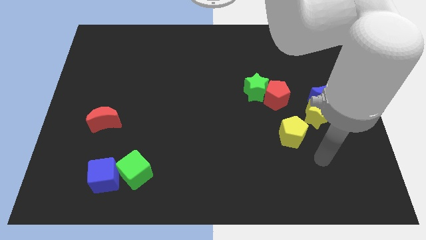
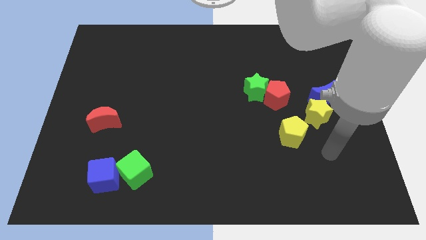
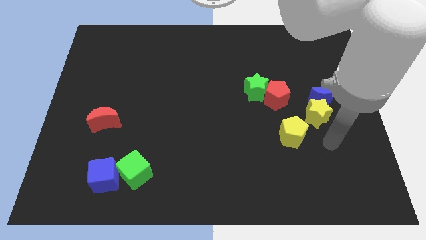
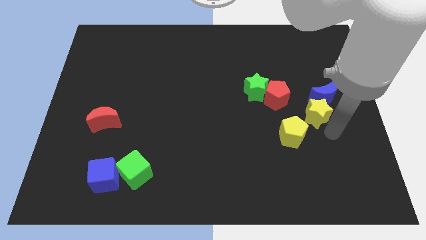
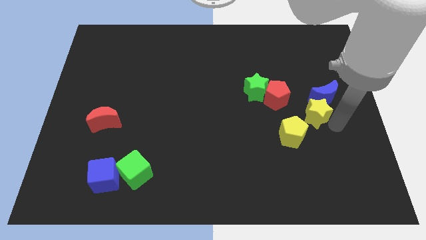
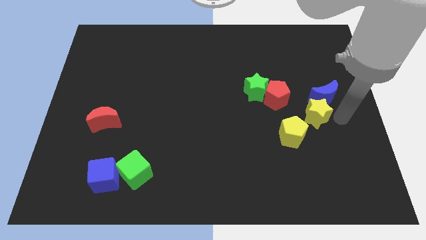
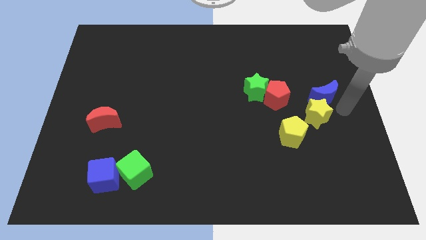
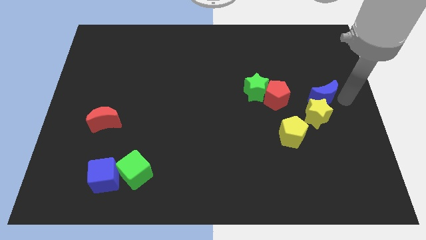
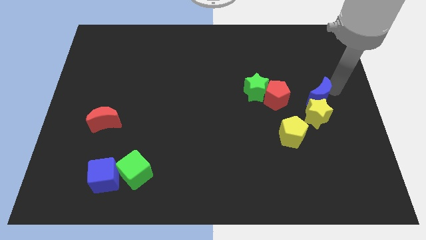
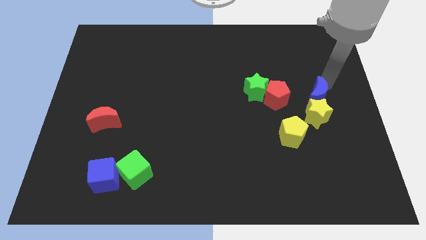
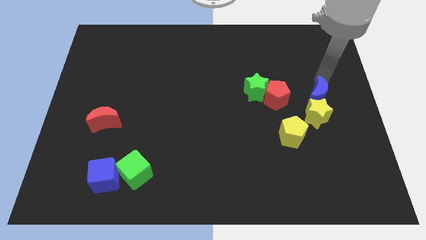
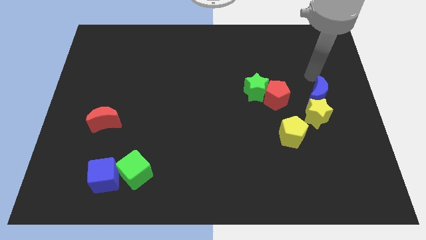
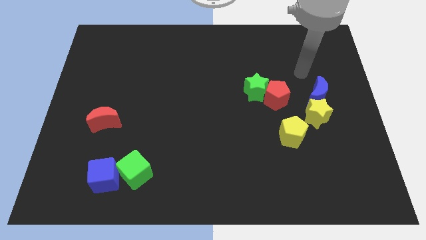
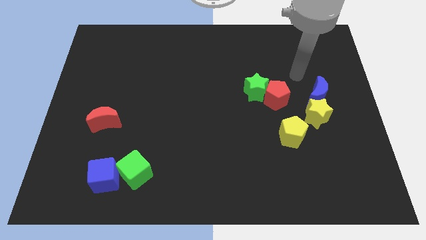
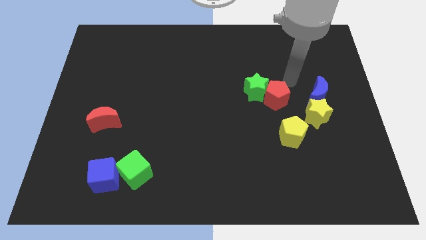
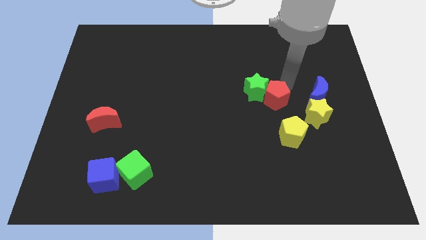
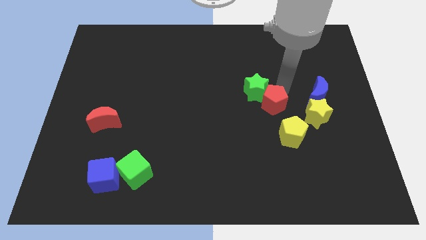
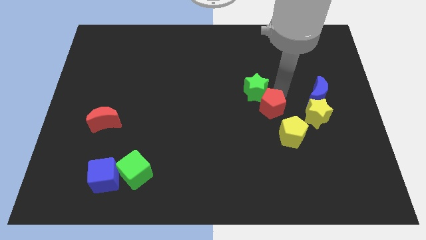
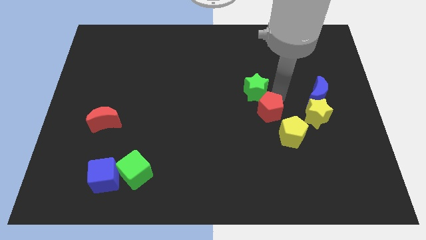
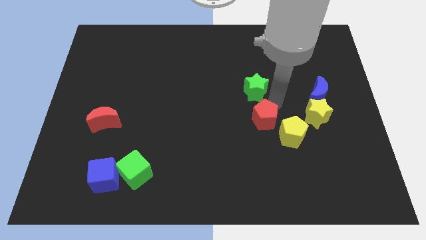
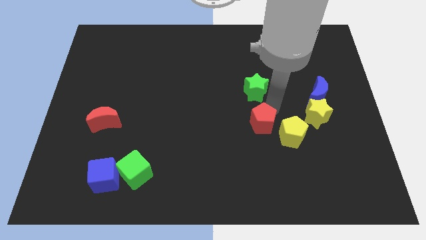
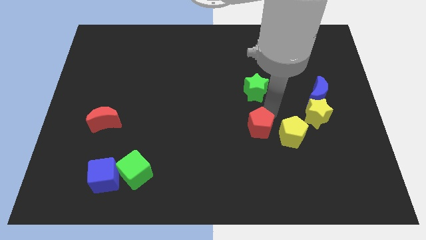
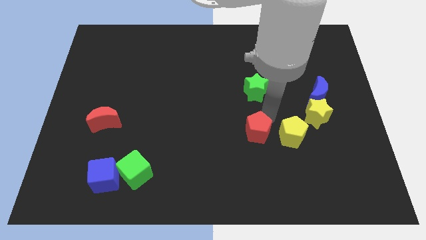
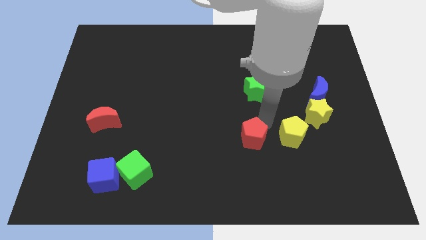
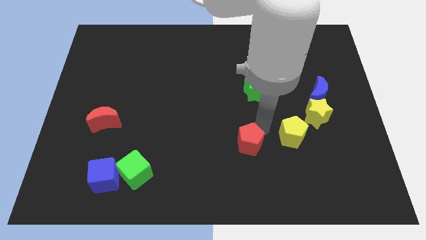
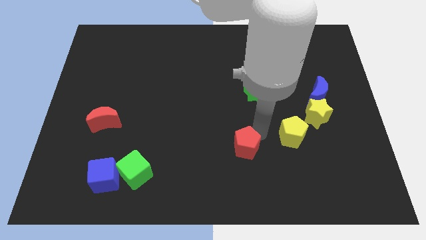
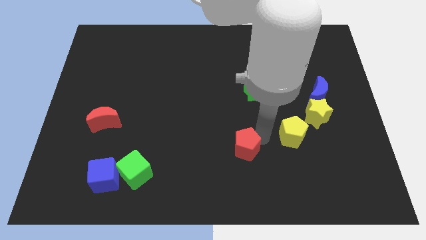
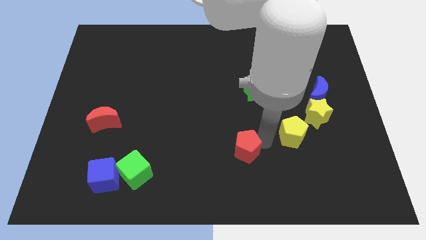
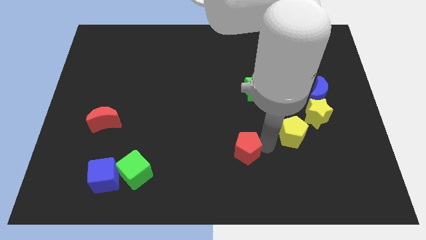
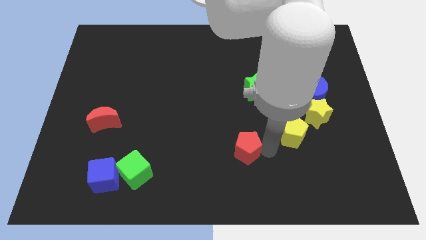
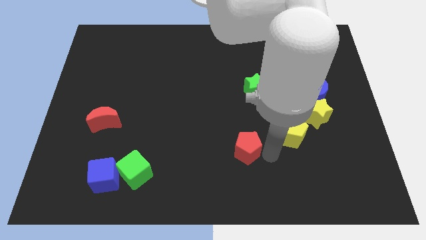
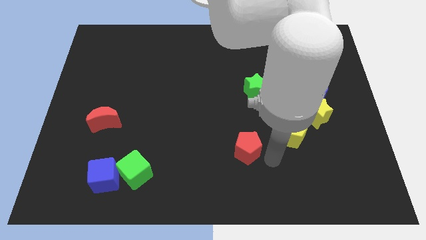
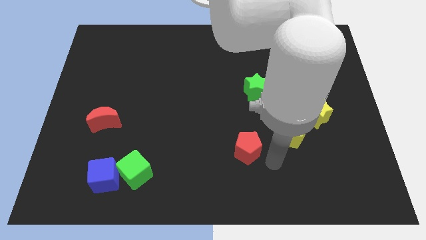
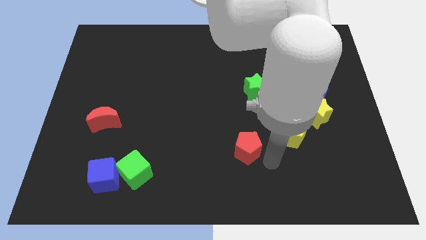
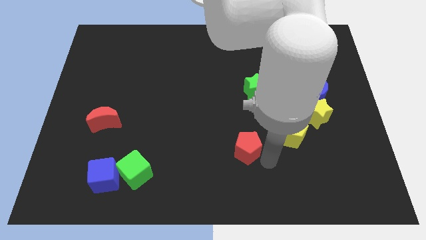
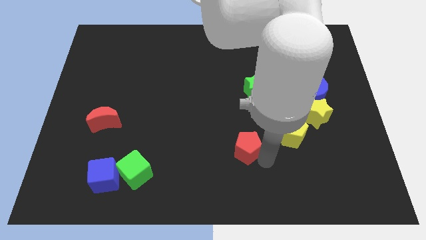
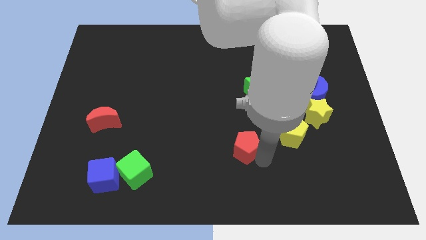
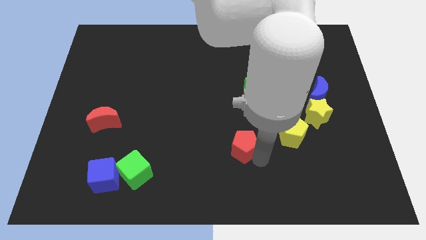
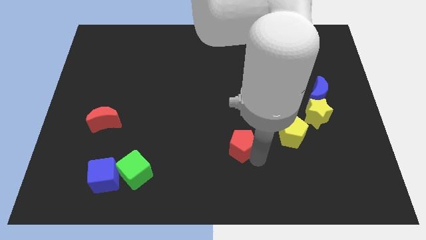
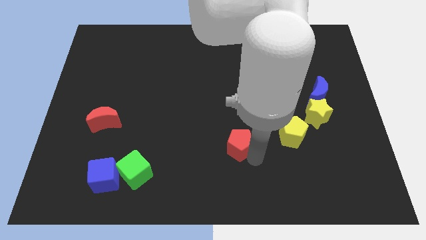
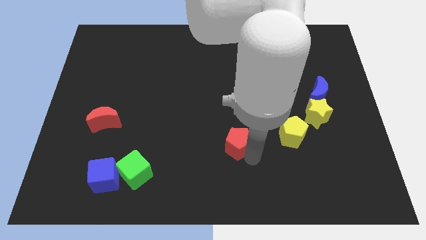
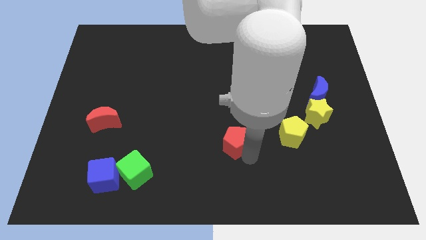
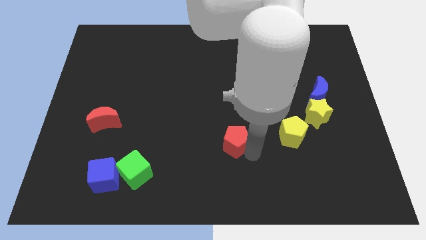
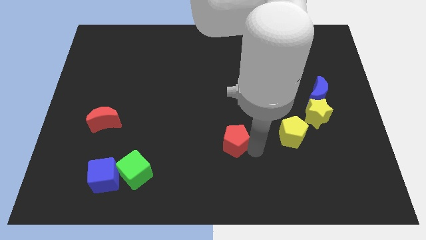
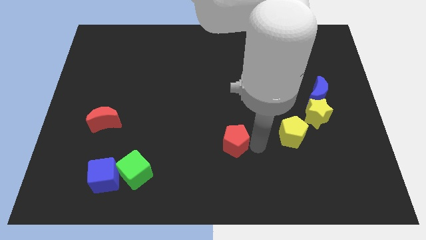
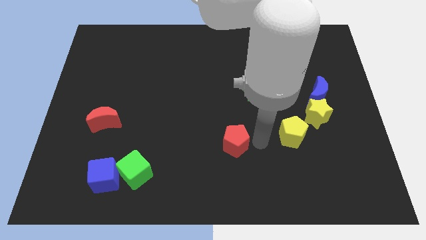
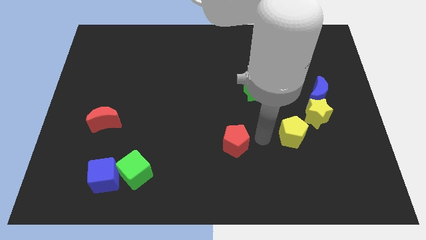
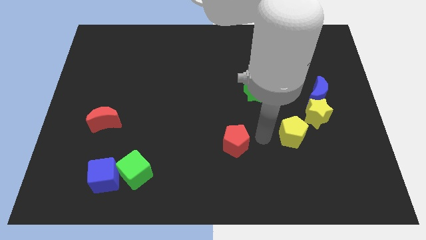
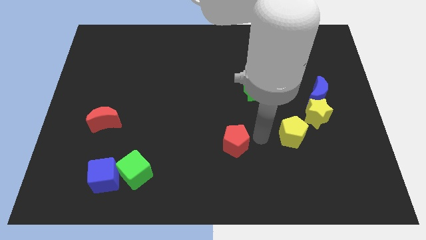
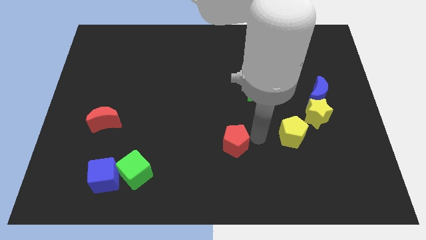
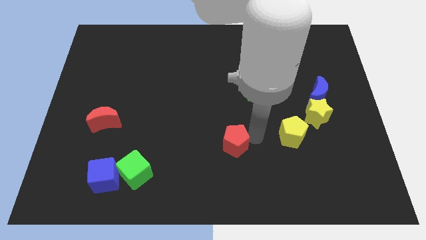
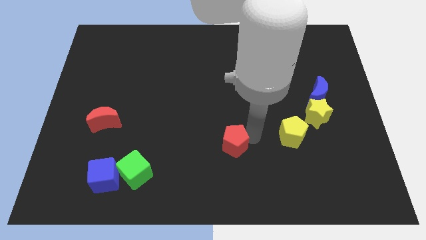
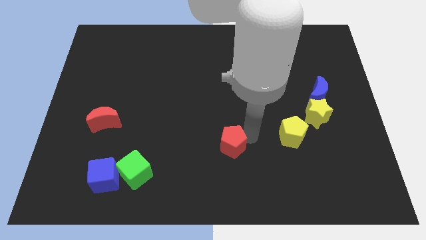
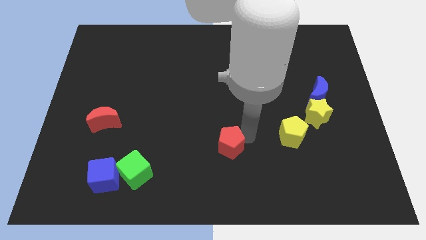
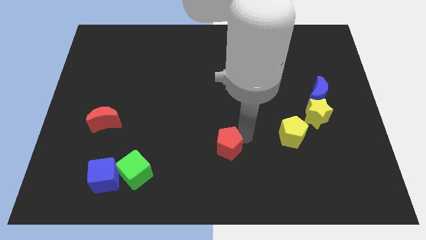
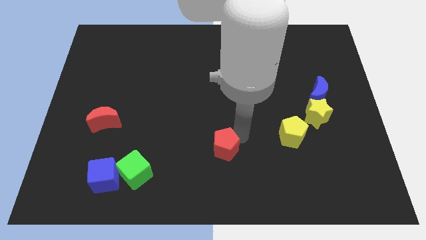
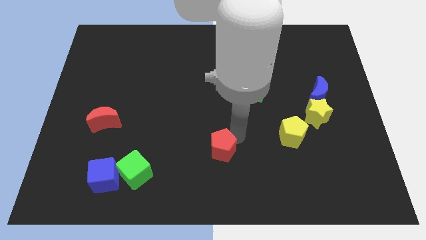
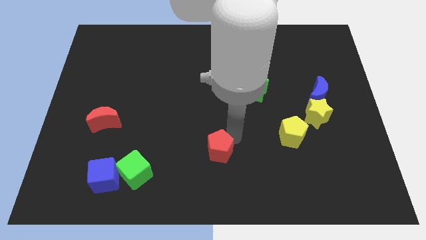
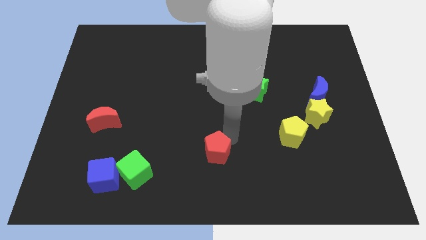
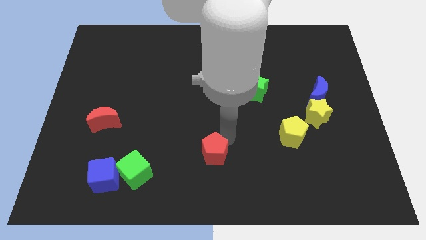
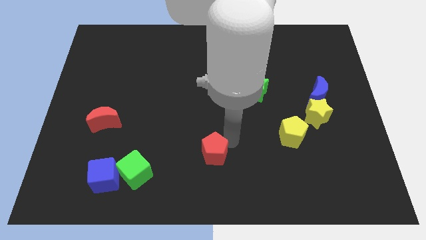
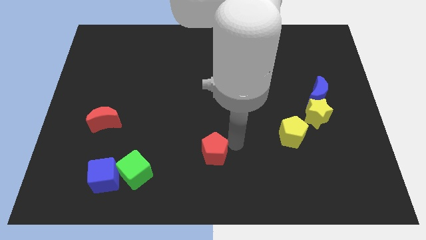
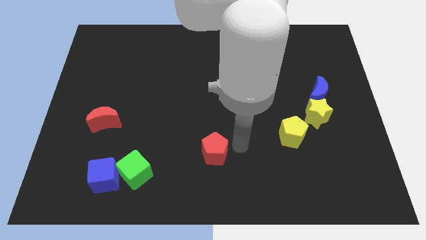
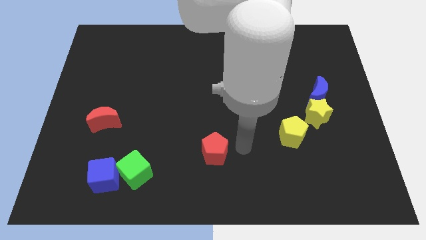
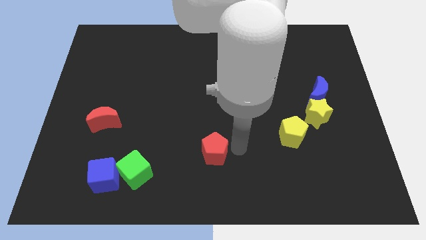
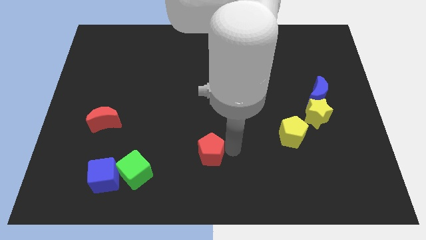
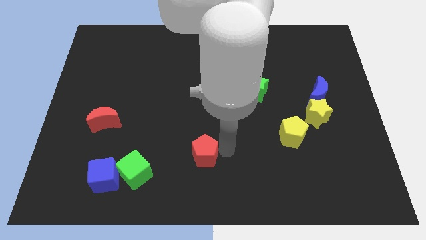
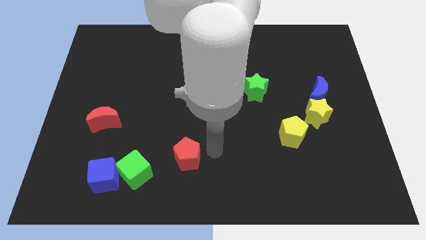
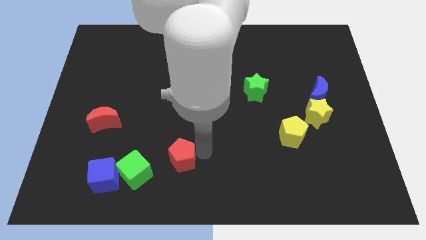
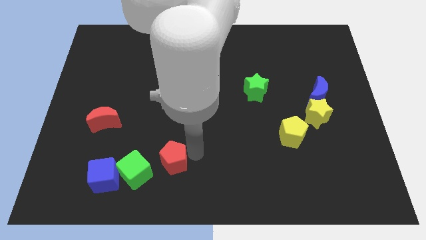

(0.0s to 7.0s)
push the red pentagon right of the blue cube
